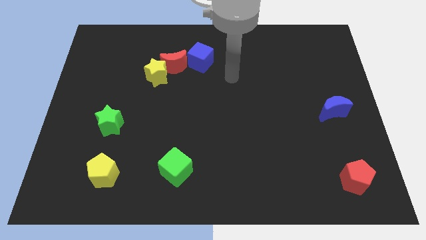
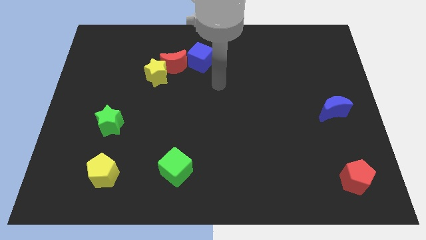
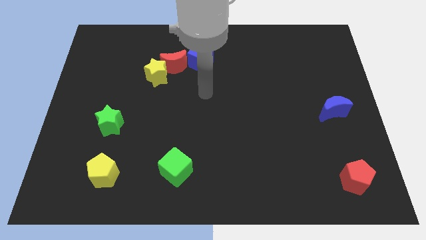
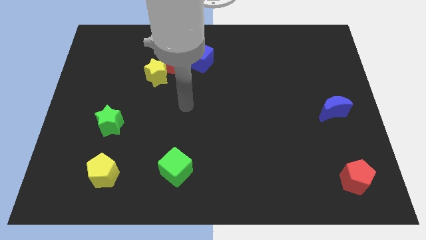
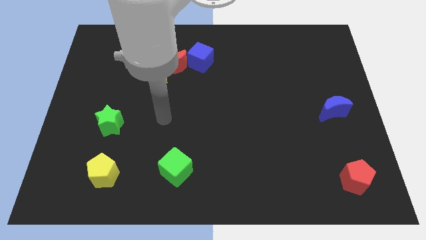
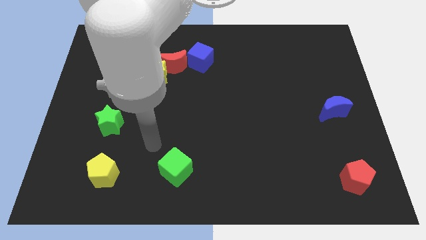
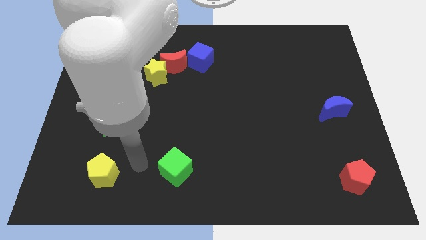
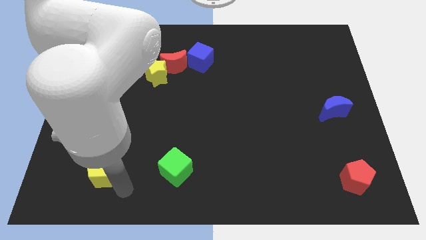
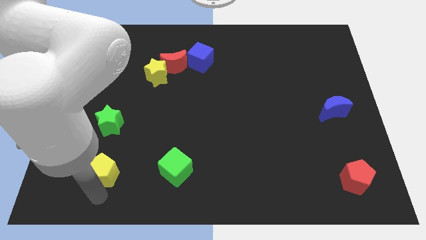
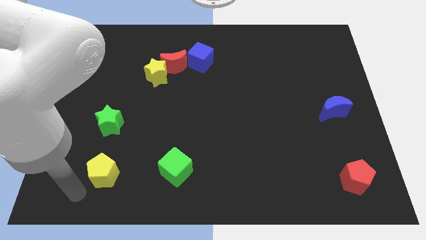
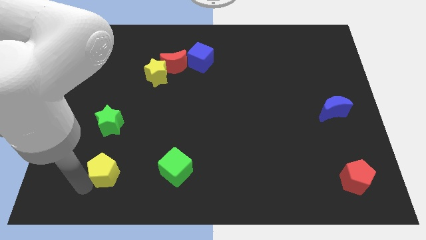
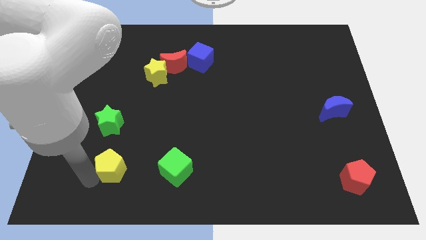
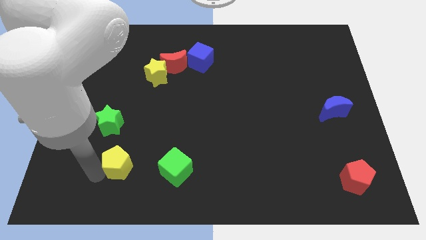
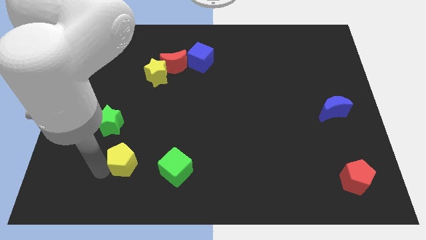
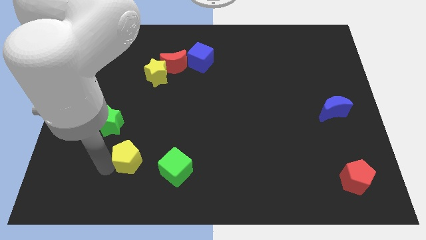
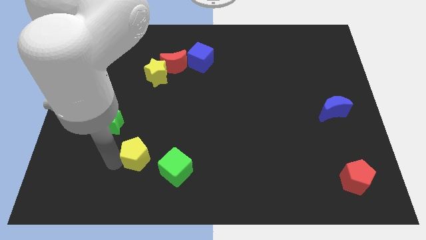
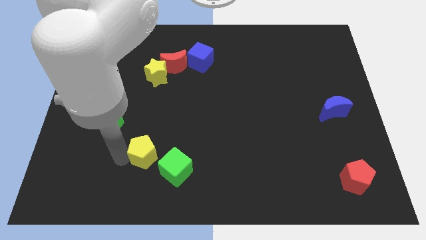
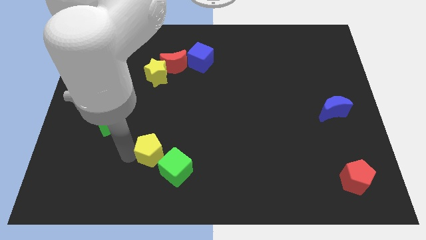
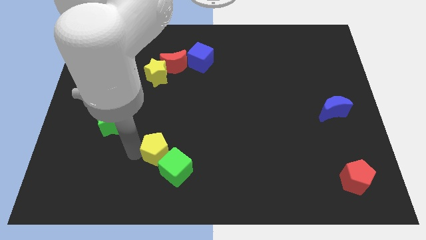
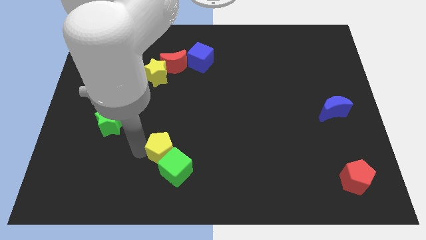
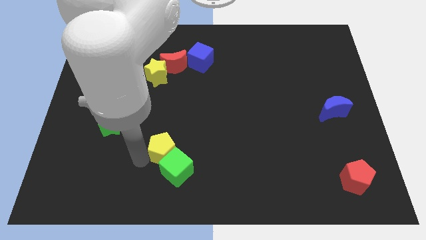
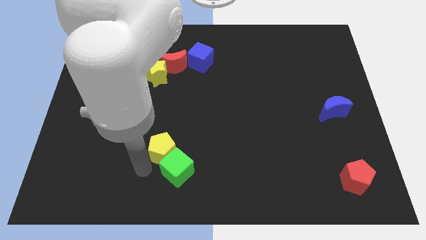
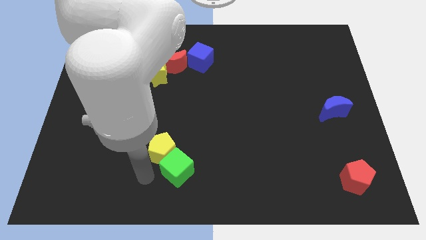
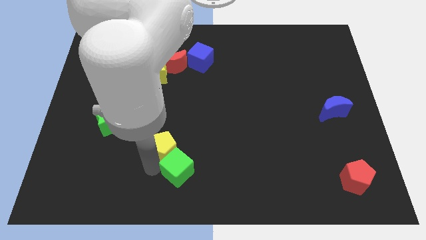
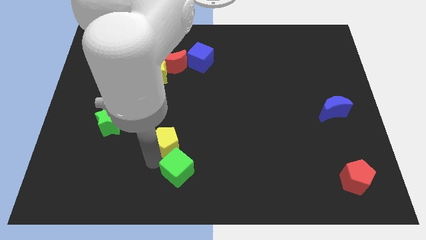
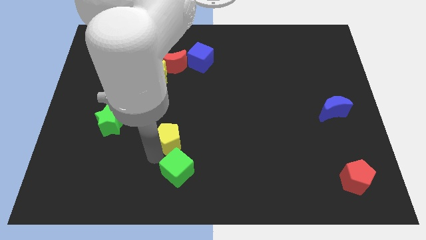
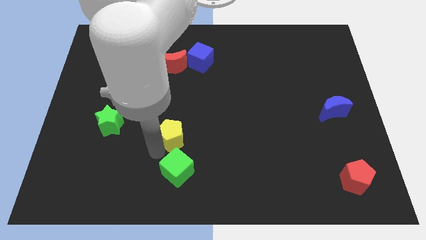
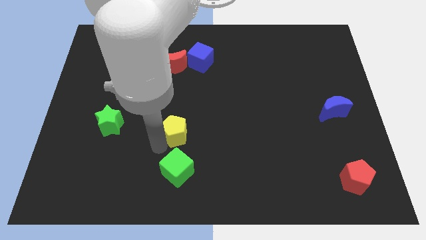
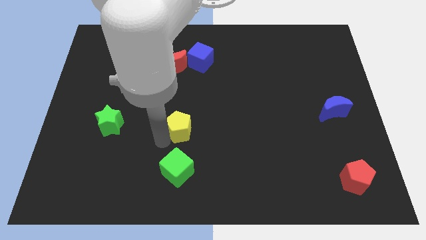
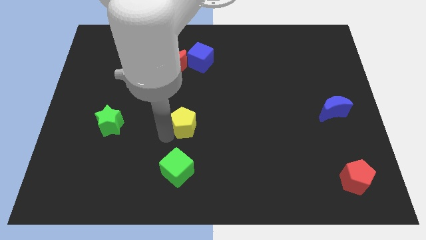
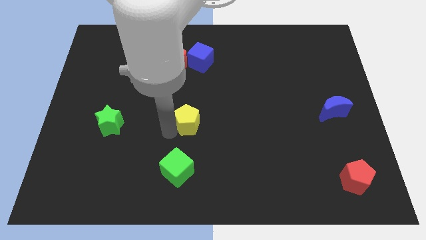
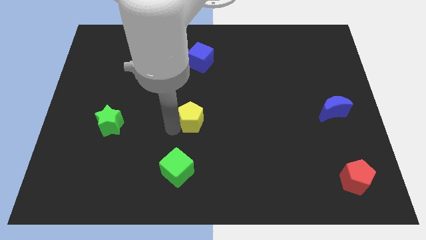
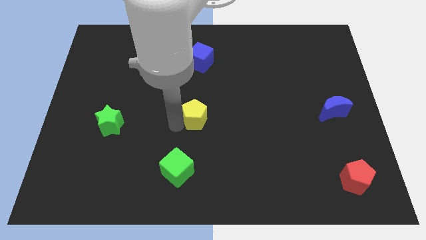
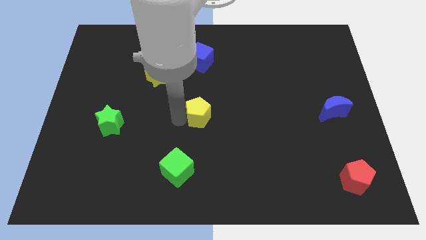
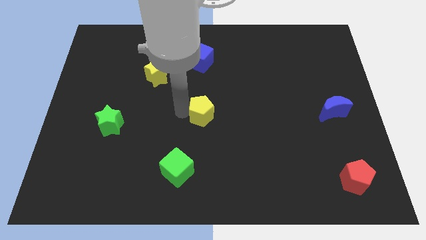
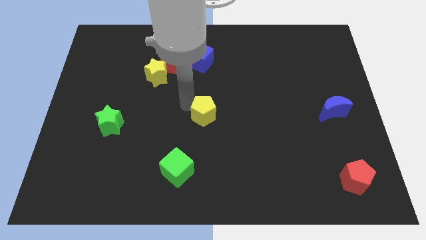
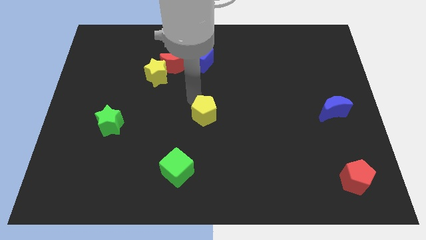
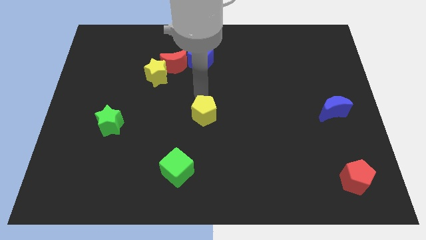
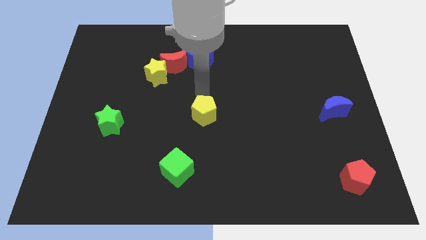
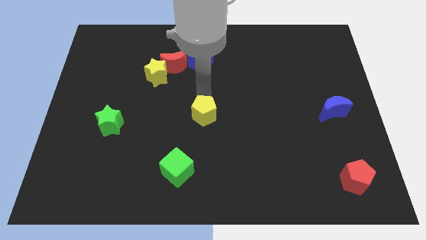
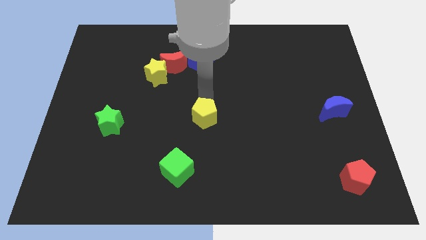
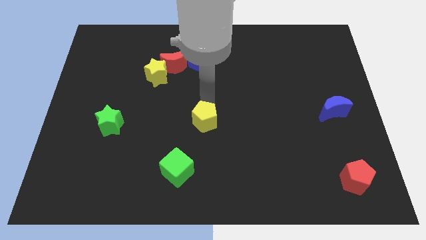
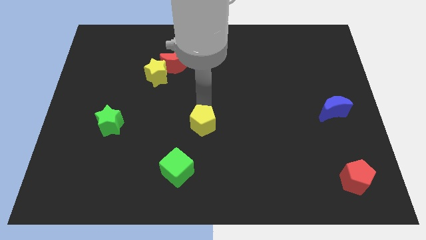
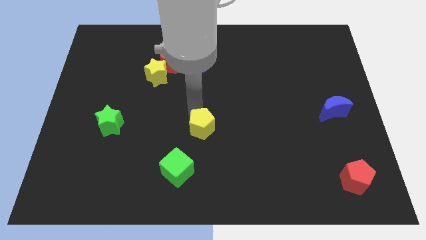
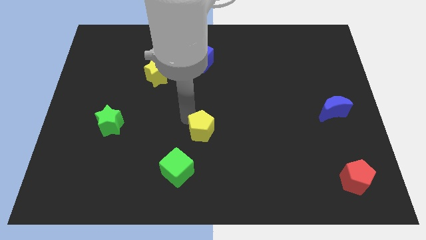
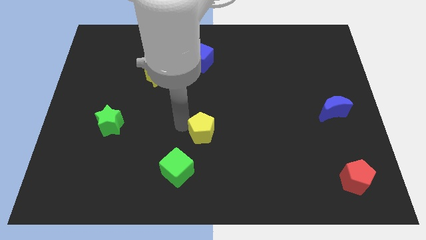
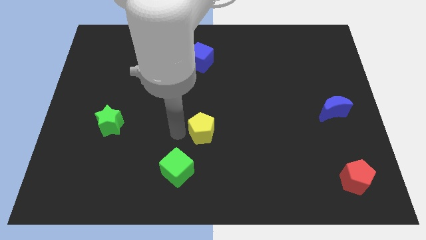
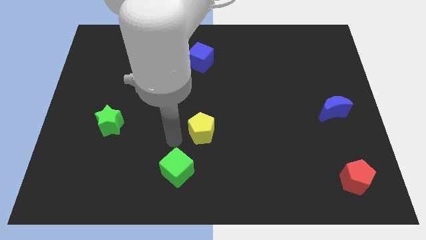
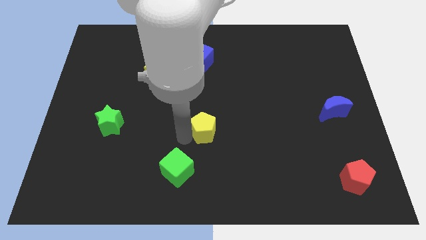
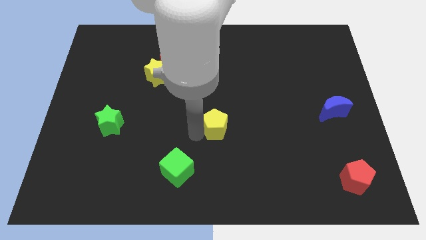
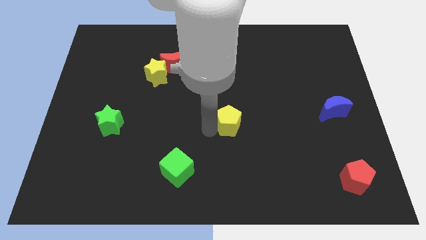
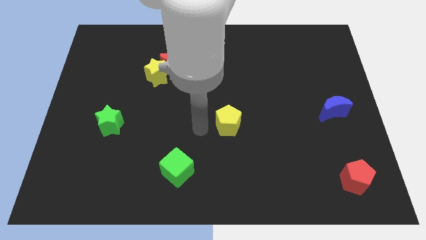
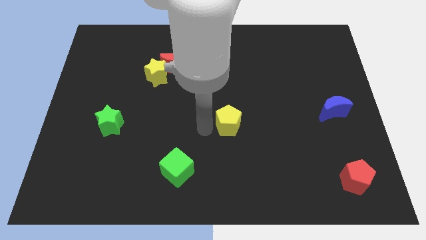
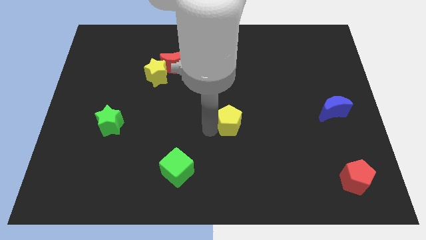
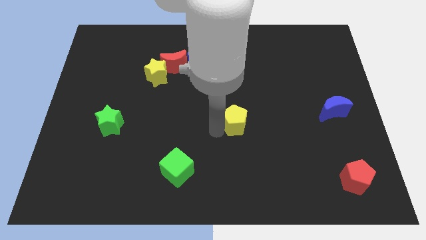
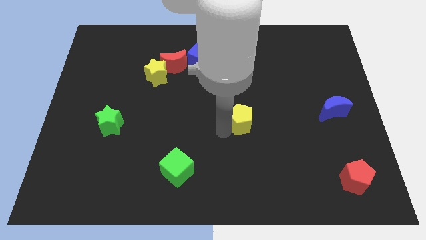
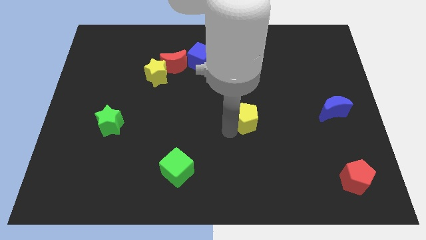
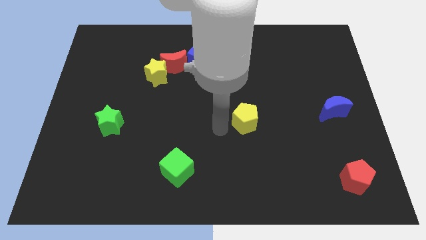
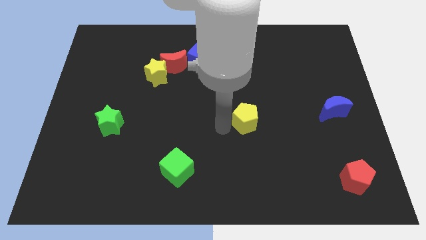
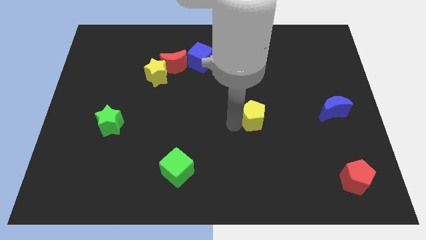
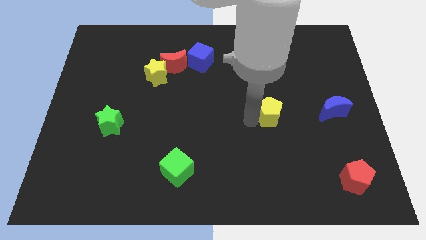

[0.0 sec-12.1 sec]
move the yellow pentagon just left of the blue moon

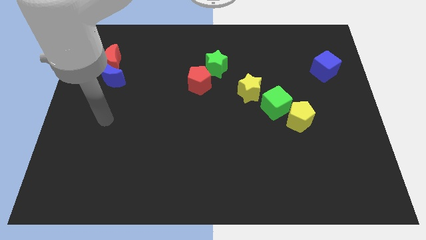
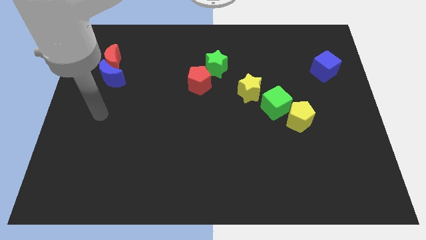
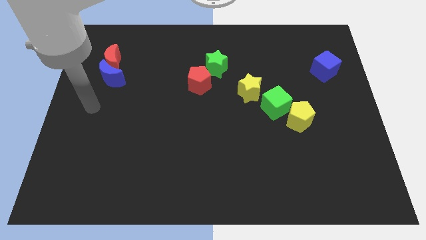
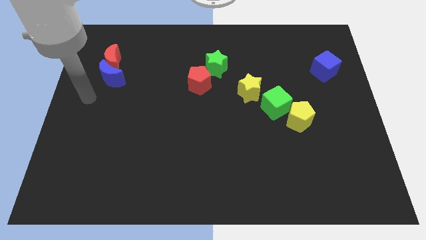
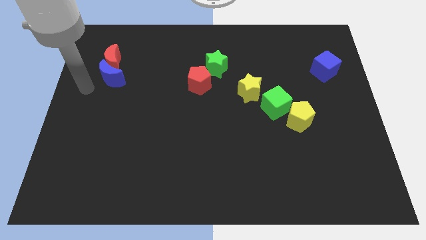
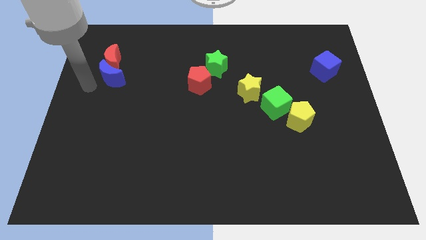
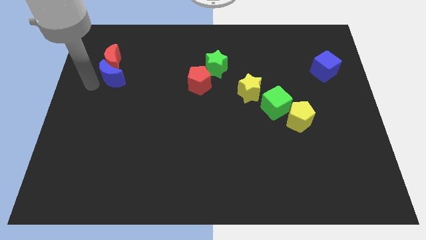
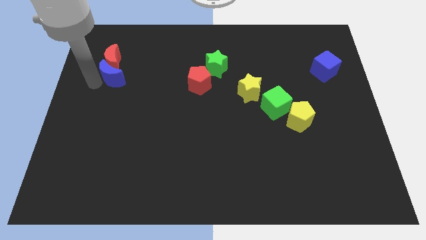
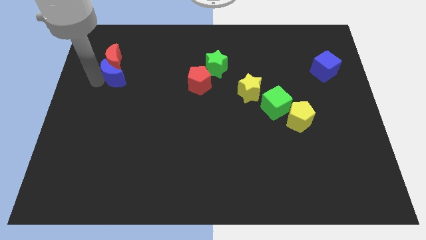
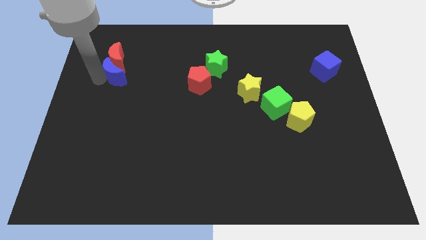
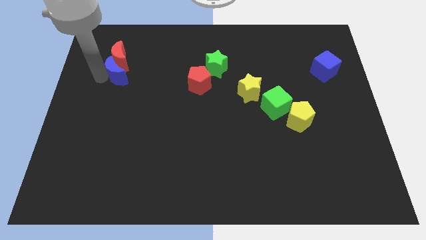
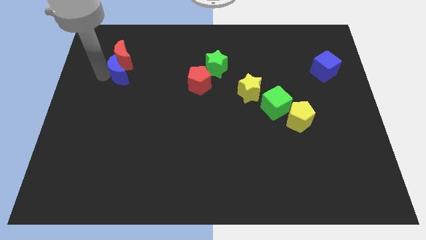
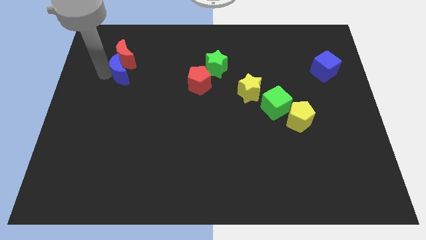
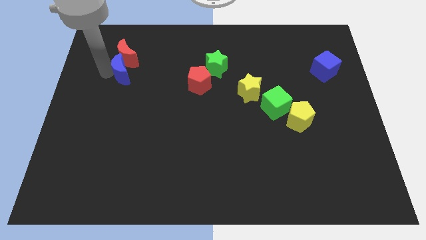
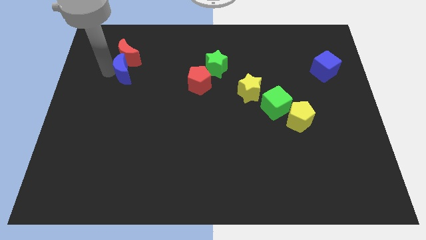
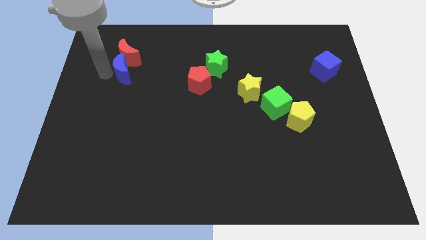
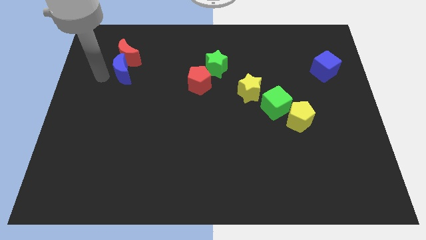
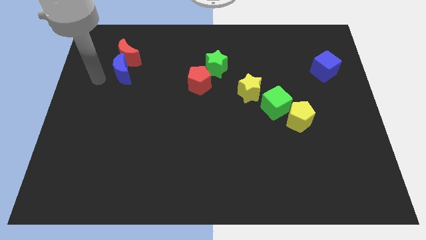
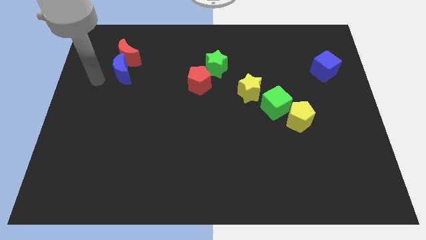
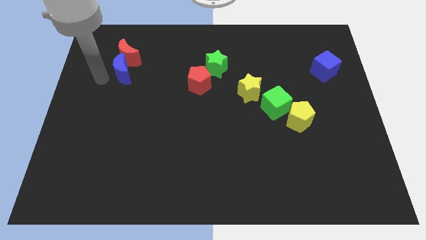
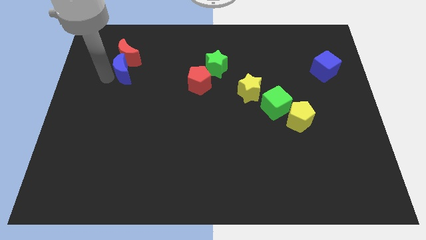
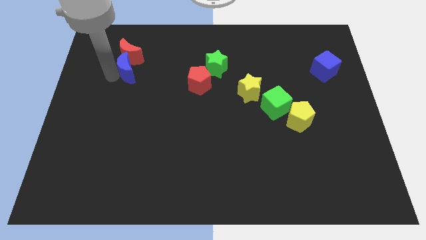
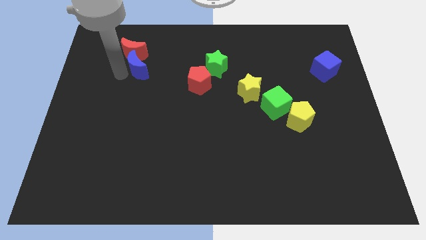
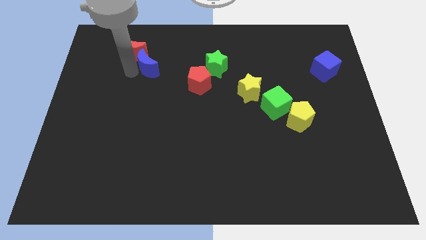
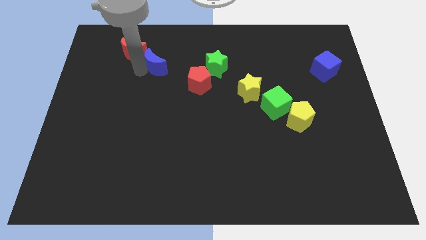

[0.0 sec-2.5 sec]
move the blue moon to the right side of the red moon
